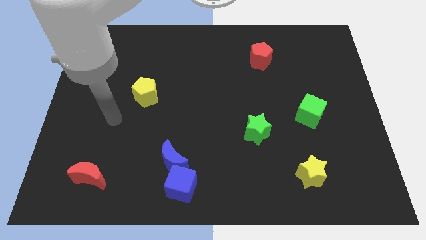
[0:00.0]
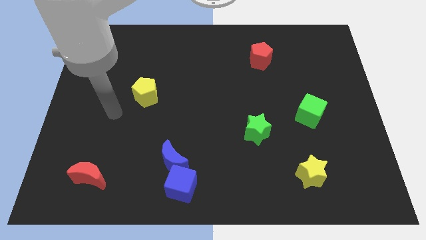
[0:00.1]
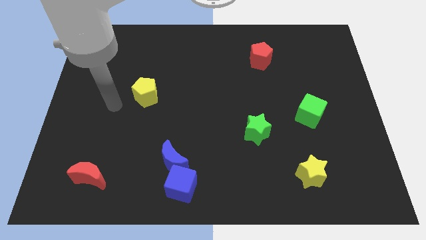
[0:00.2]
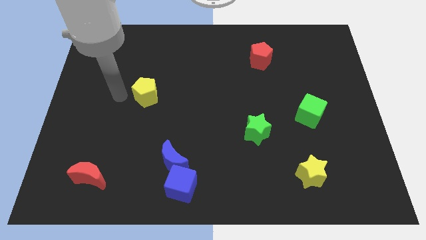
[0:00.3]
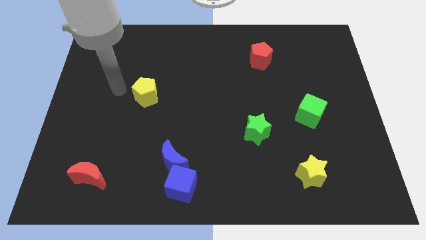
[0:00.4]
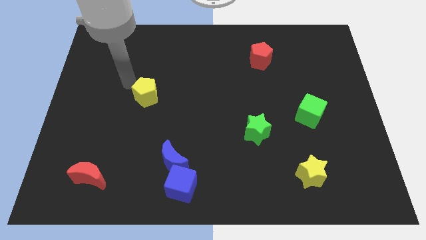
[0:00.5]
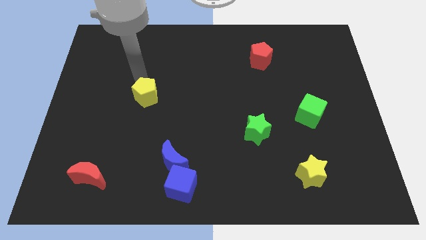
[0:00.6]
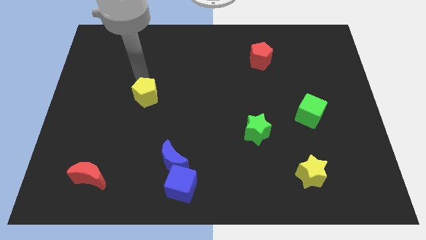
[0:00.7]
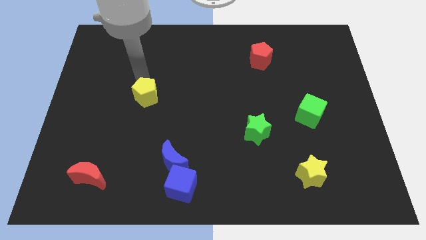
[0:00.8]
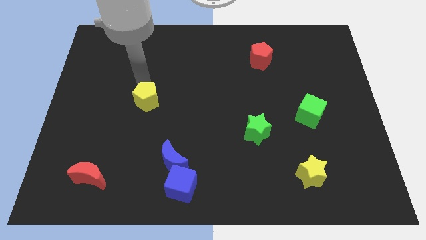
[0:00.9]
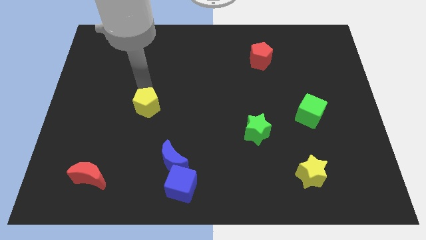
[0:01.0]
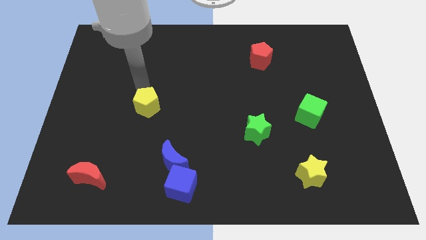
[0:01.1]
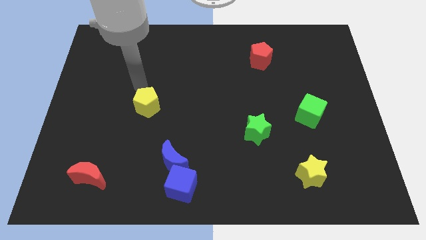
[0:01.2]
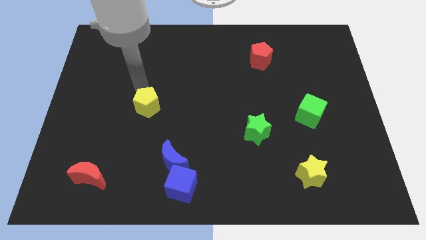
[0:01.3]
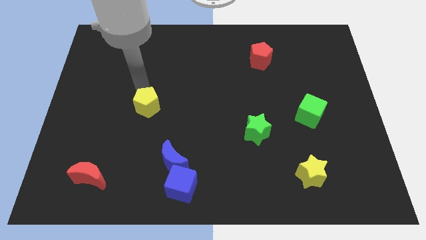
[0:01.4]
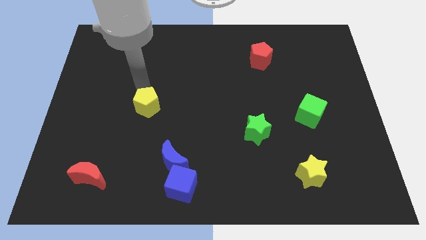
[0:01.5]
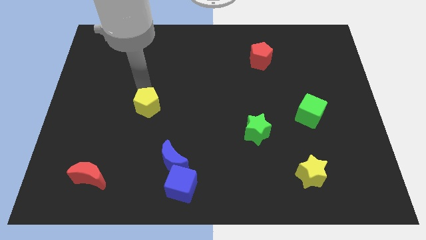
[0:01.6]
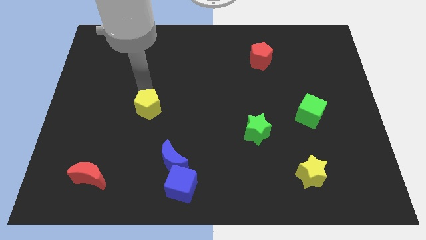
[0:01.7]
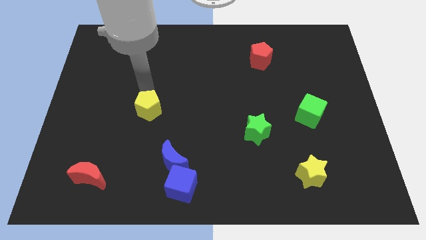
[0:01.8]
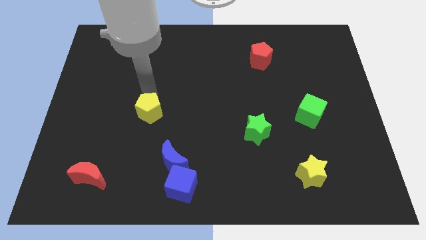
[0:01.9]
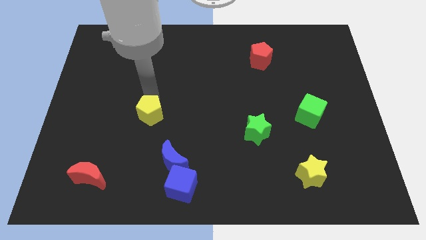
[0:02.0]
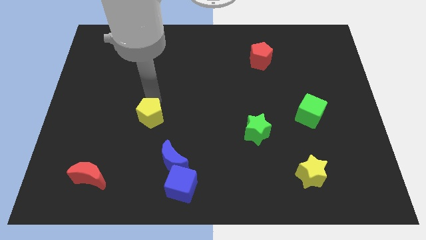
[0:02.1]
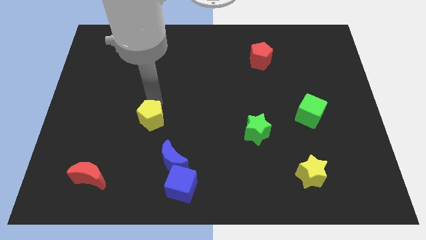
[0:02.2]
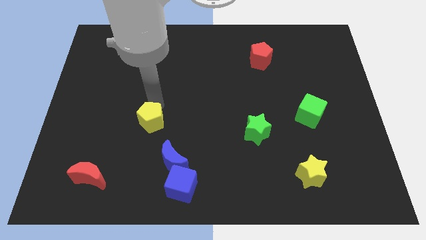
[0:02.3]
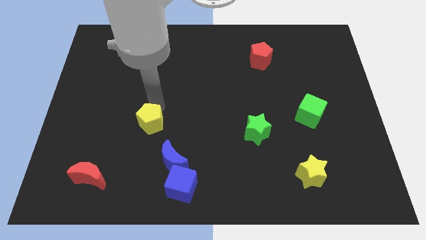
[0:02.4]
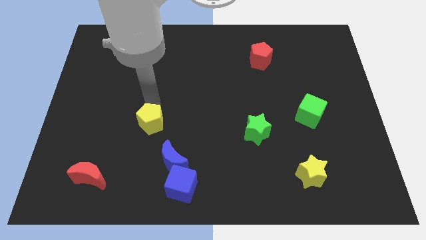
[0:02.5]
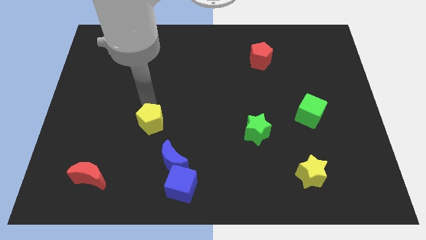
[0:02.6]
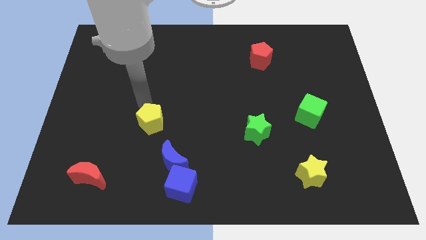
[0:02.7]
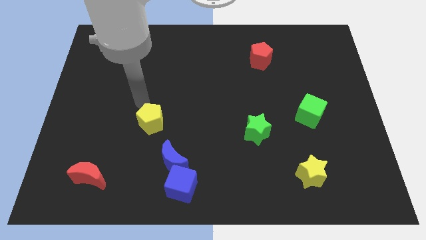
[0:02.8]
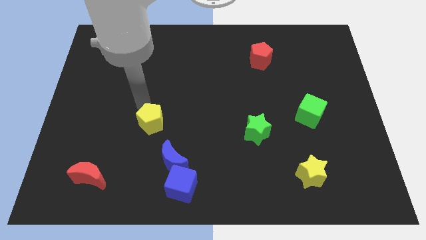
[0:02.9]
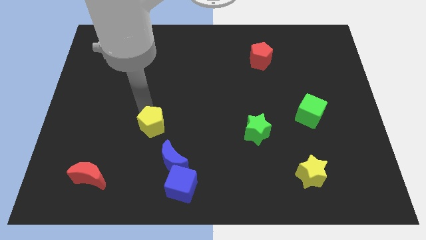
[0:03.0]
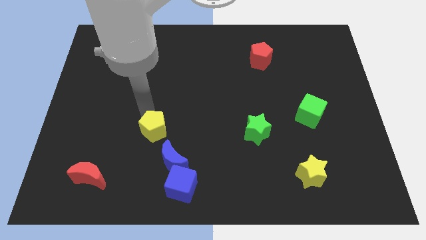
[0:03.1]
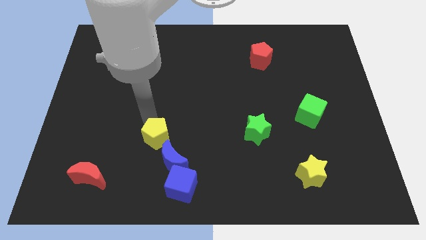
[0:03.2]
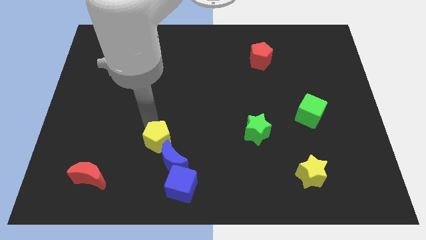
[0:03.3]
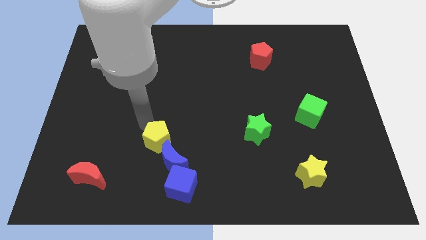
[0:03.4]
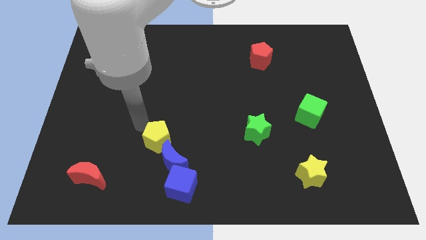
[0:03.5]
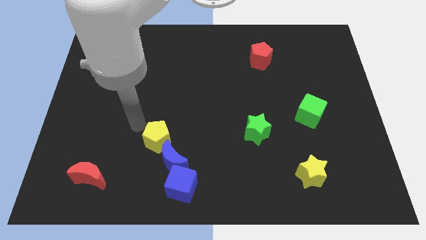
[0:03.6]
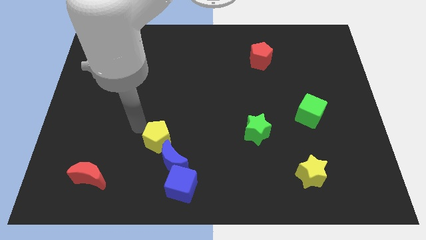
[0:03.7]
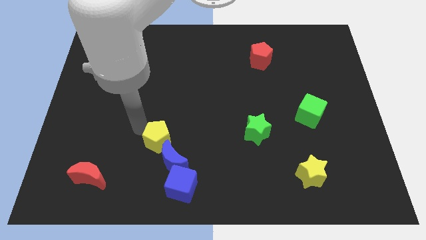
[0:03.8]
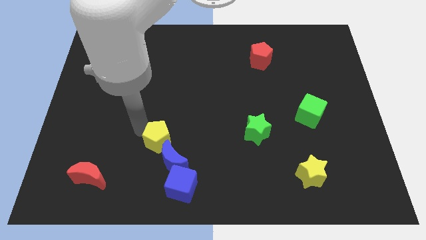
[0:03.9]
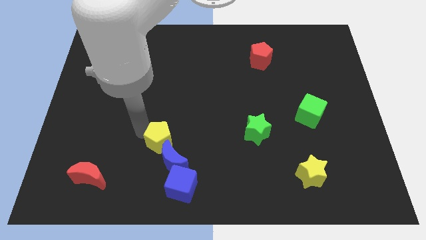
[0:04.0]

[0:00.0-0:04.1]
put the yellow pentagon to the blue moon

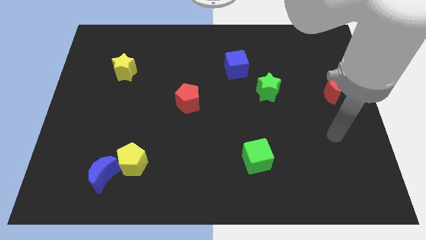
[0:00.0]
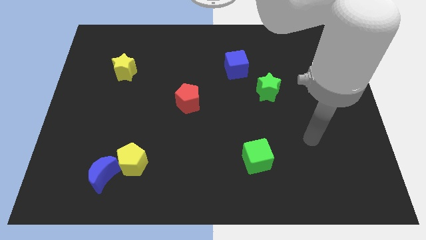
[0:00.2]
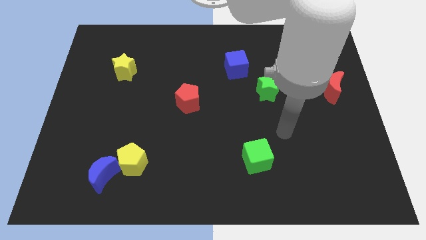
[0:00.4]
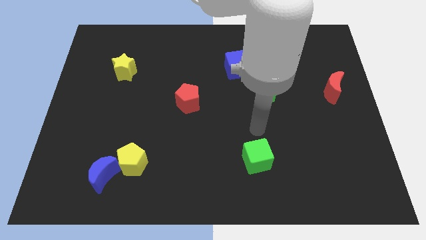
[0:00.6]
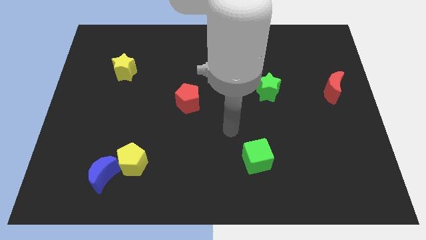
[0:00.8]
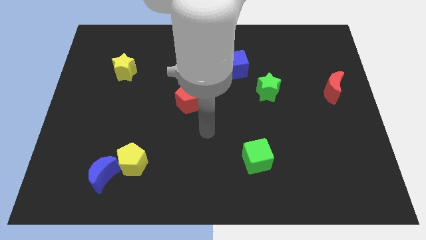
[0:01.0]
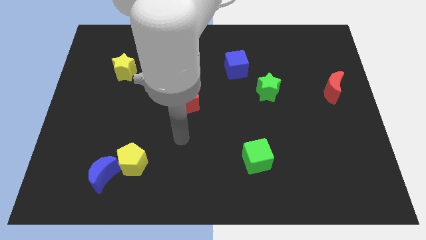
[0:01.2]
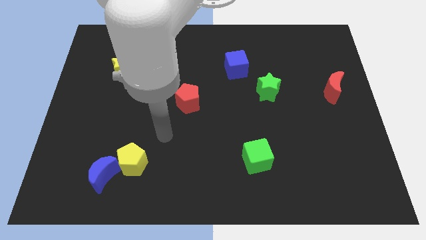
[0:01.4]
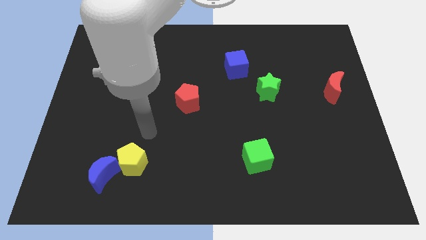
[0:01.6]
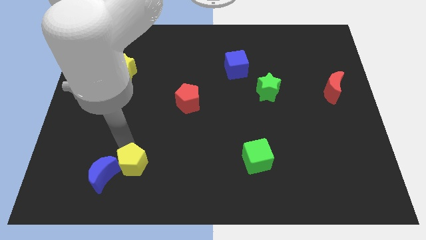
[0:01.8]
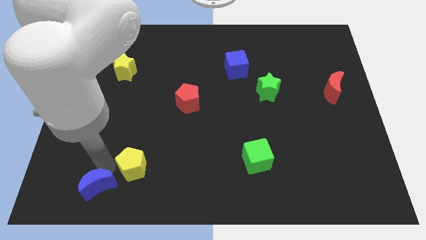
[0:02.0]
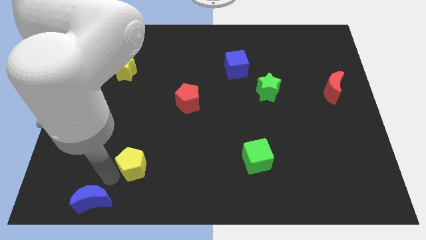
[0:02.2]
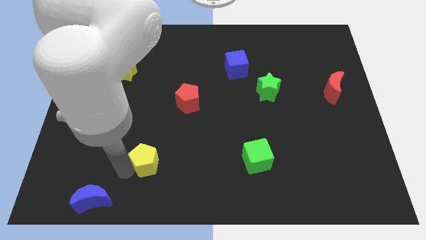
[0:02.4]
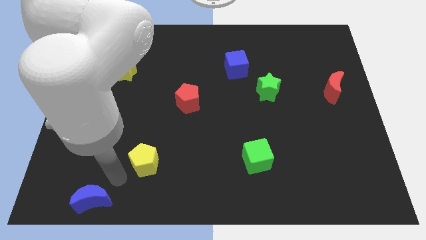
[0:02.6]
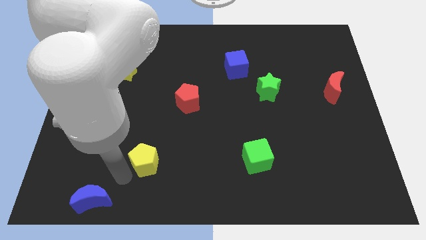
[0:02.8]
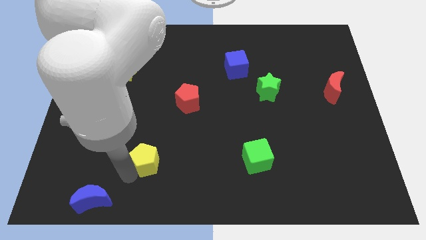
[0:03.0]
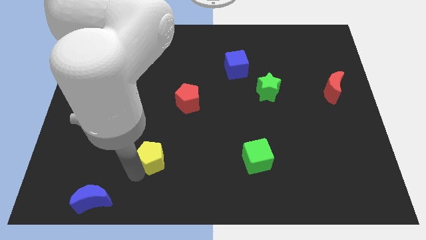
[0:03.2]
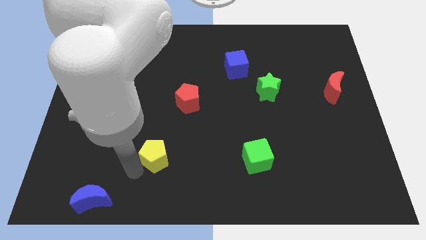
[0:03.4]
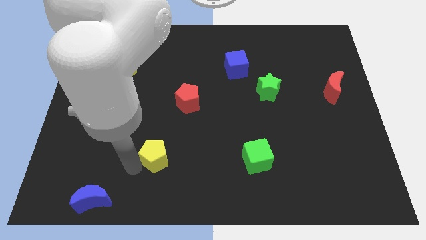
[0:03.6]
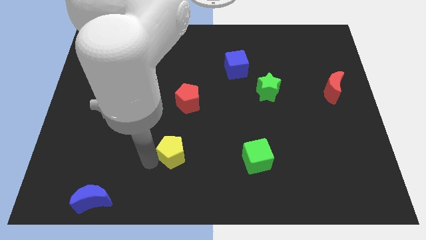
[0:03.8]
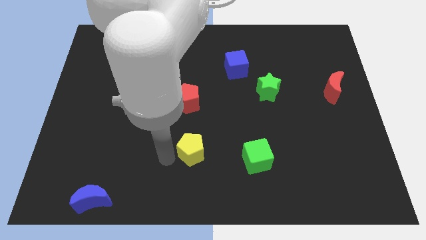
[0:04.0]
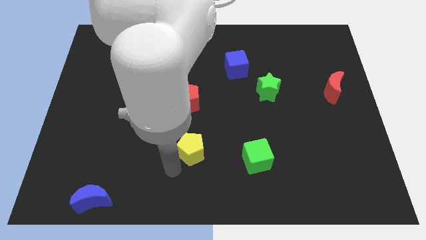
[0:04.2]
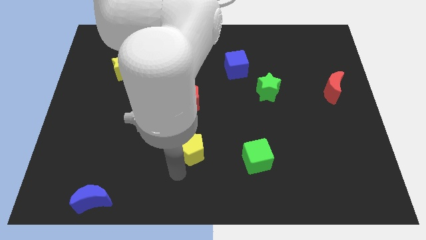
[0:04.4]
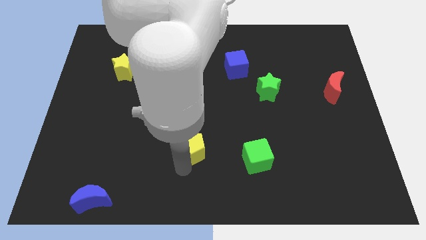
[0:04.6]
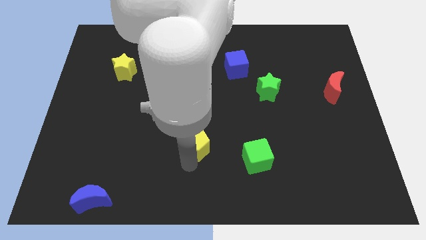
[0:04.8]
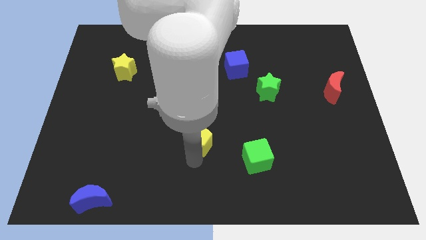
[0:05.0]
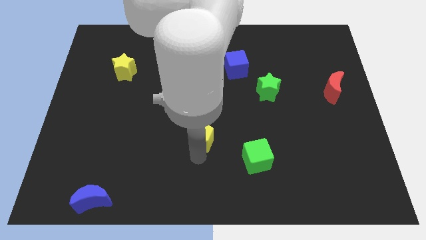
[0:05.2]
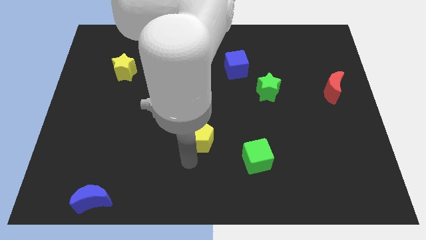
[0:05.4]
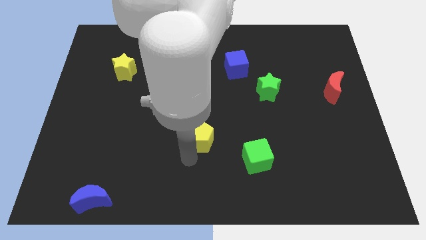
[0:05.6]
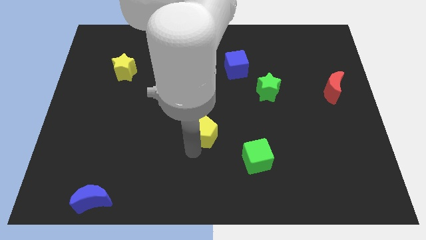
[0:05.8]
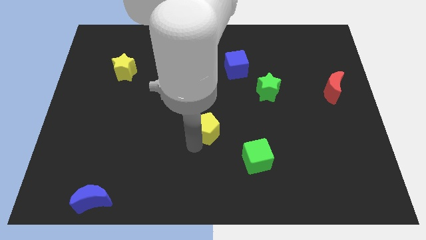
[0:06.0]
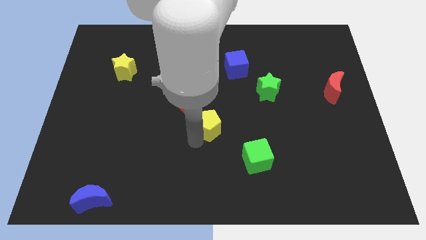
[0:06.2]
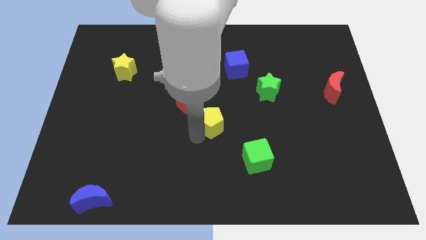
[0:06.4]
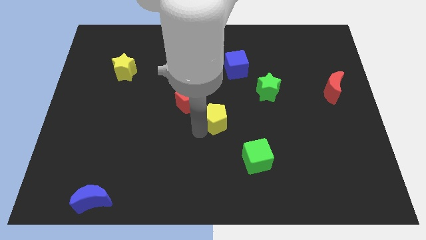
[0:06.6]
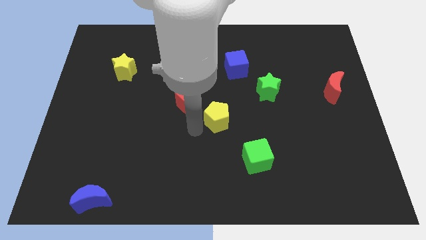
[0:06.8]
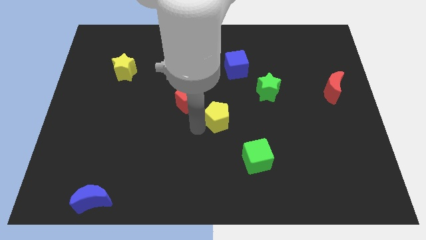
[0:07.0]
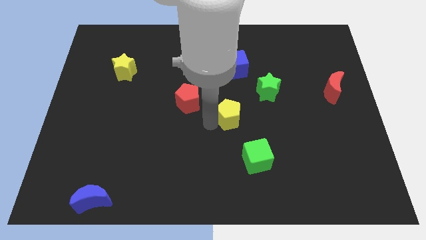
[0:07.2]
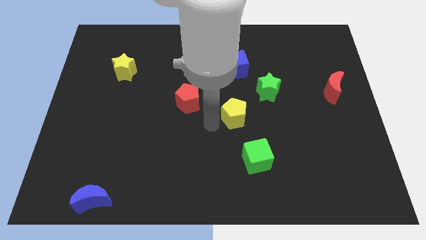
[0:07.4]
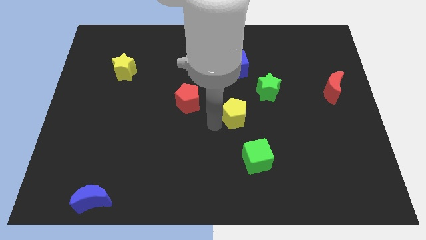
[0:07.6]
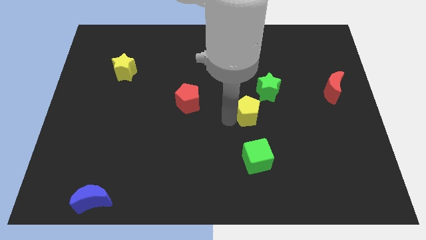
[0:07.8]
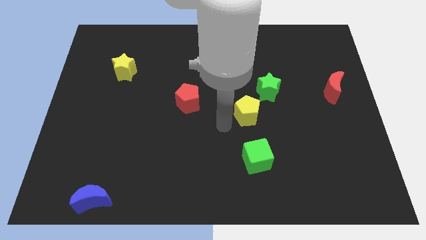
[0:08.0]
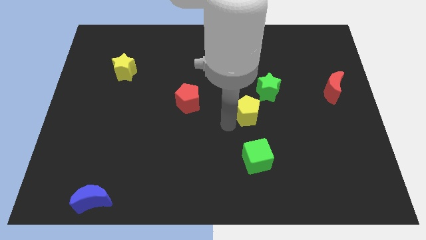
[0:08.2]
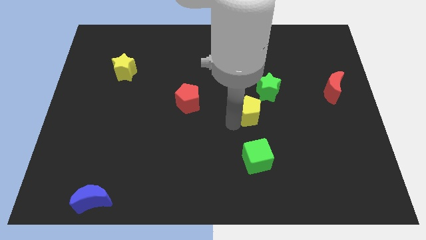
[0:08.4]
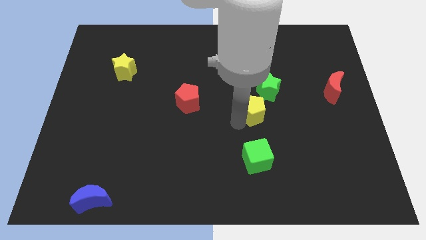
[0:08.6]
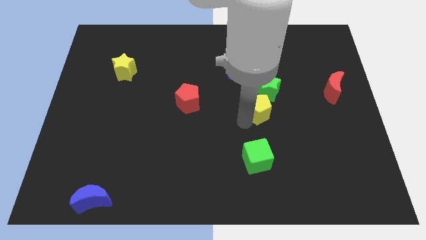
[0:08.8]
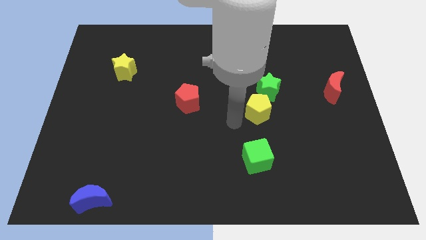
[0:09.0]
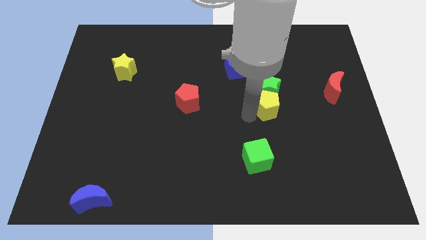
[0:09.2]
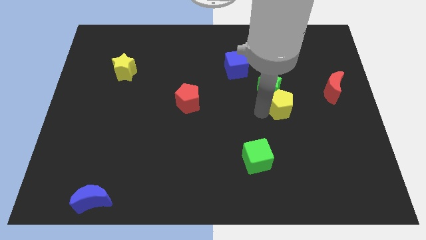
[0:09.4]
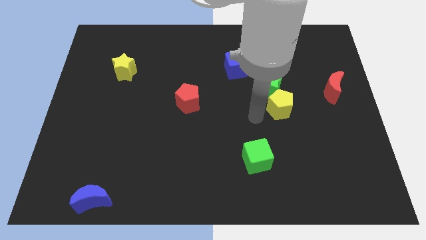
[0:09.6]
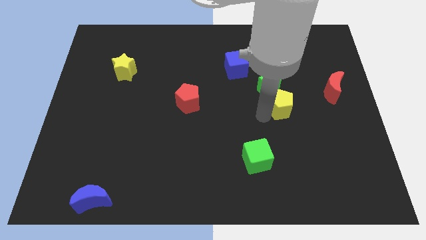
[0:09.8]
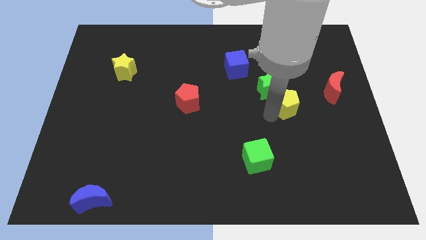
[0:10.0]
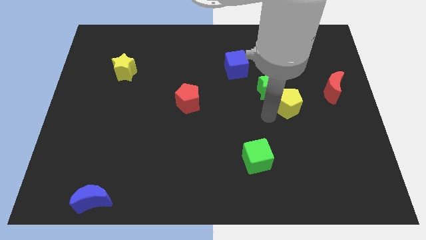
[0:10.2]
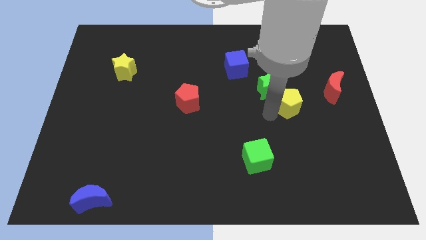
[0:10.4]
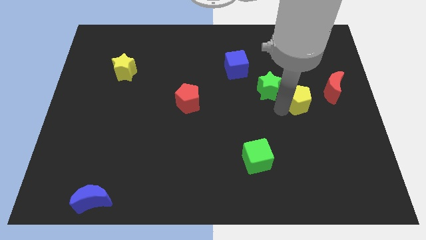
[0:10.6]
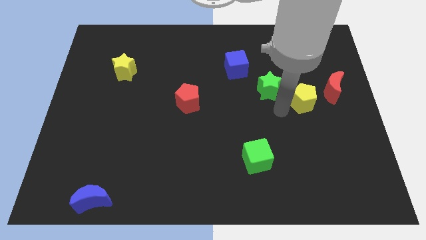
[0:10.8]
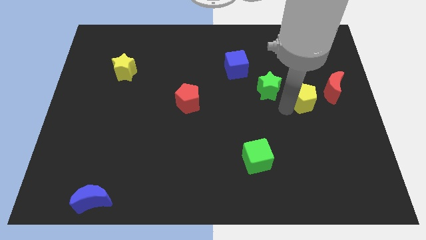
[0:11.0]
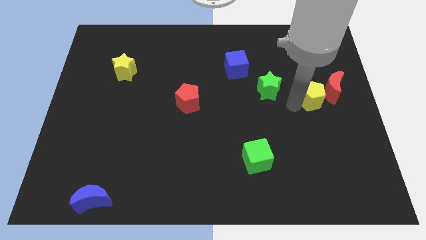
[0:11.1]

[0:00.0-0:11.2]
move the yellow pentagon towards the red moon
